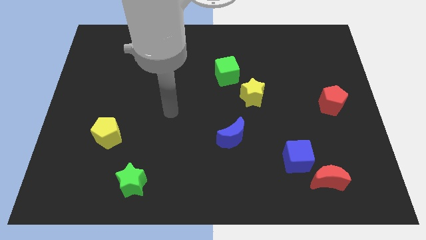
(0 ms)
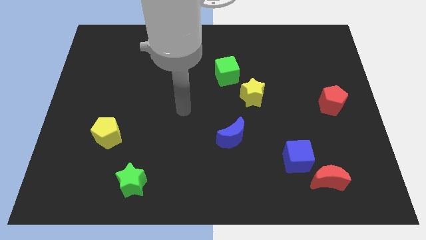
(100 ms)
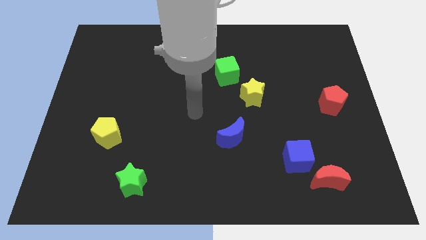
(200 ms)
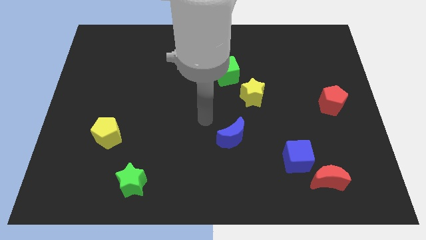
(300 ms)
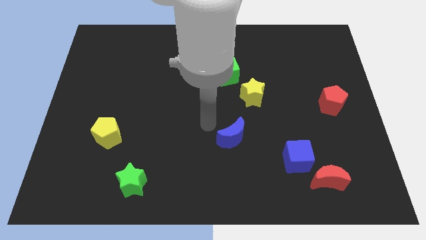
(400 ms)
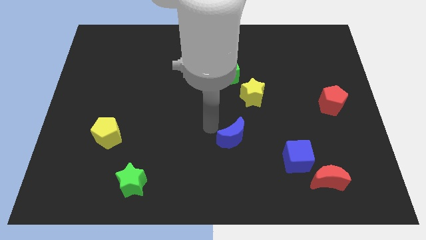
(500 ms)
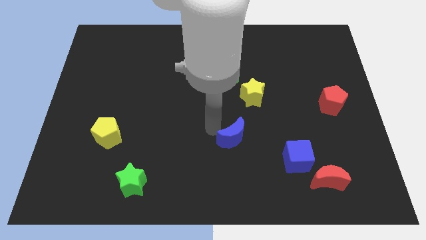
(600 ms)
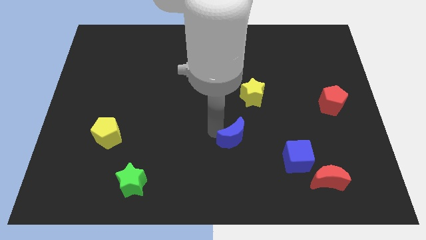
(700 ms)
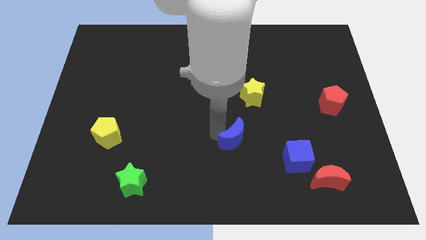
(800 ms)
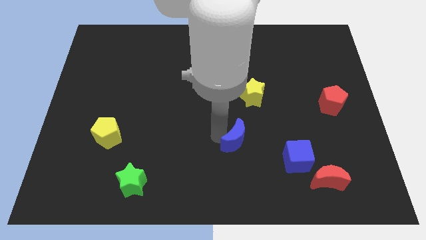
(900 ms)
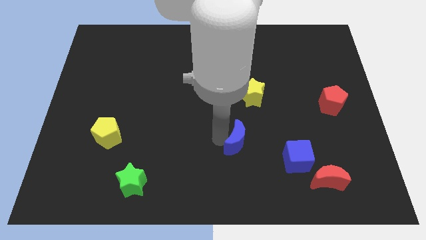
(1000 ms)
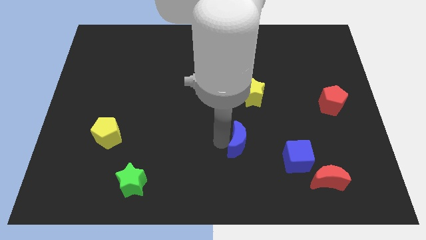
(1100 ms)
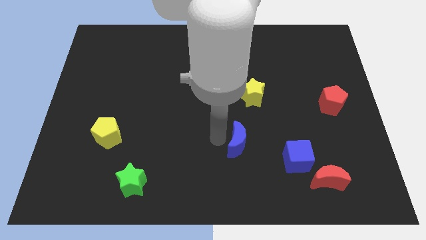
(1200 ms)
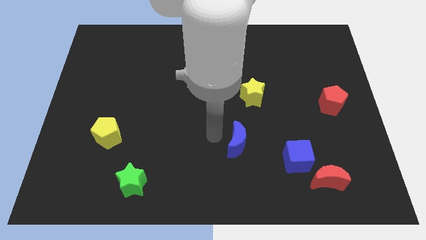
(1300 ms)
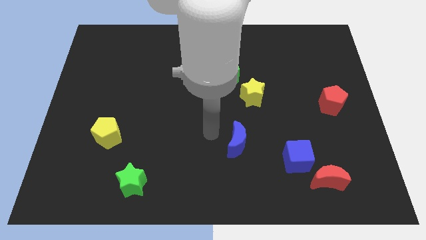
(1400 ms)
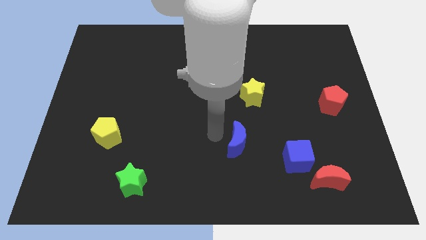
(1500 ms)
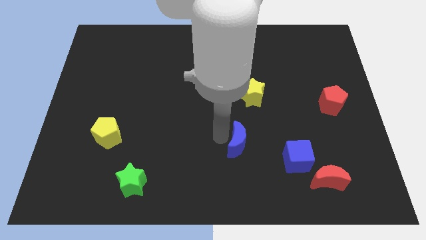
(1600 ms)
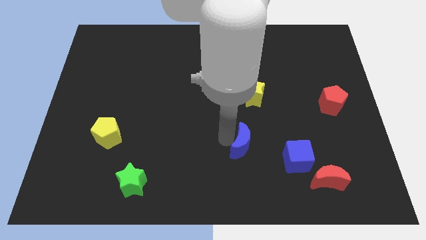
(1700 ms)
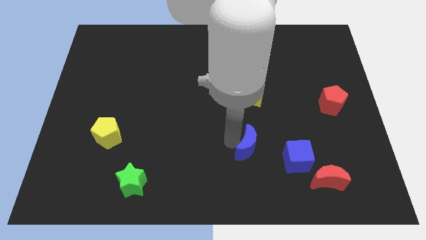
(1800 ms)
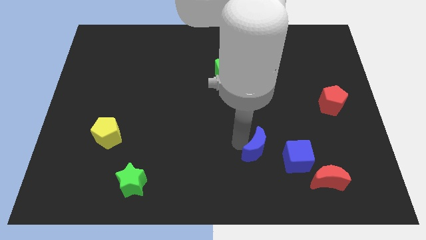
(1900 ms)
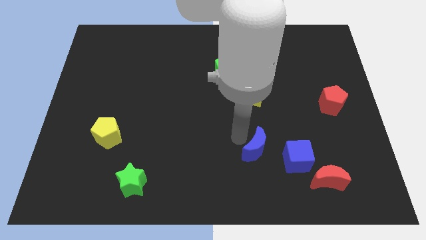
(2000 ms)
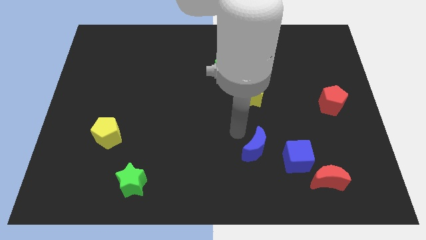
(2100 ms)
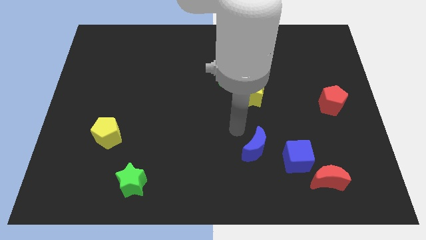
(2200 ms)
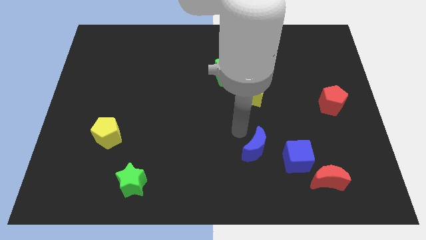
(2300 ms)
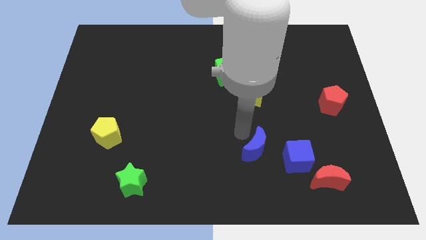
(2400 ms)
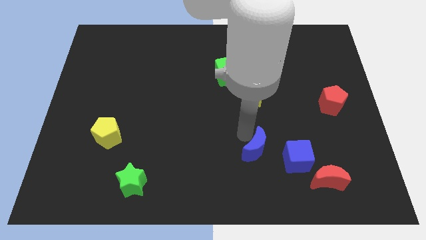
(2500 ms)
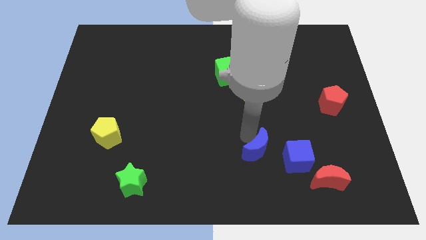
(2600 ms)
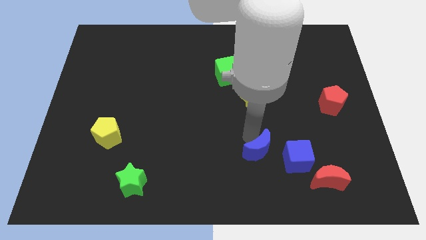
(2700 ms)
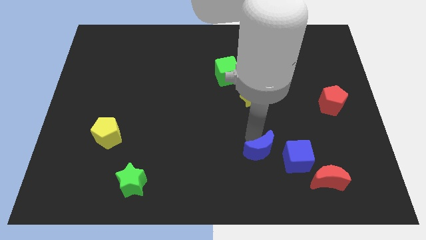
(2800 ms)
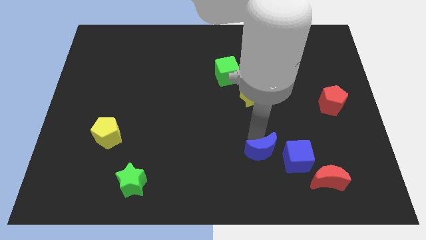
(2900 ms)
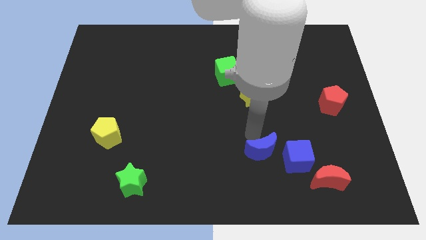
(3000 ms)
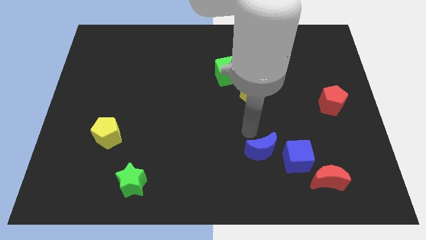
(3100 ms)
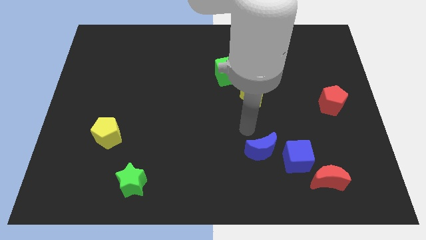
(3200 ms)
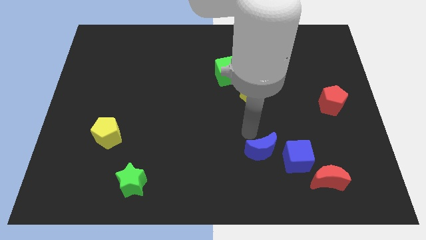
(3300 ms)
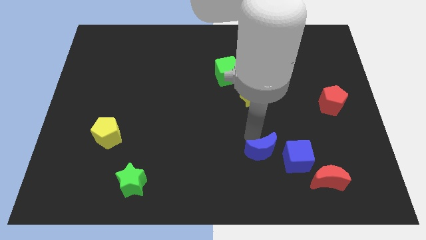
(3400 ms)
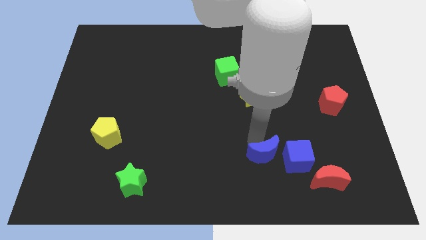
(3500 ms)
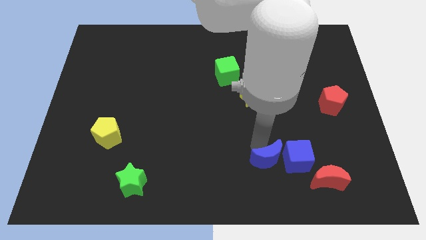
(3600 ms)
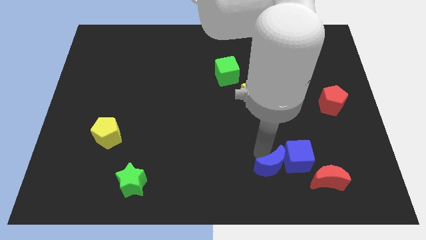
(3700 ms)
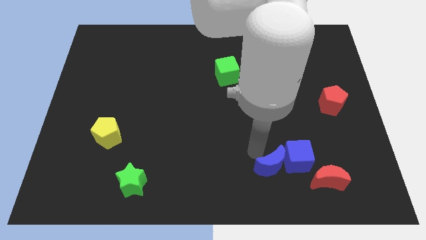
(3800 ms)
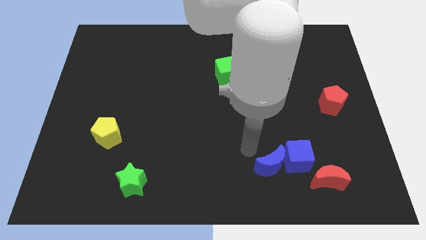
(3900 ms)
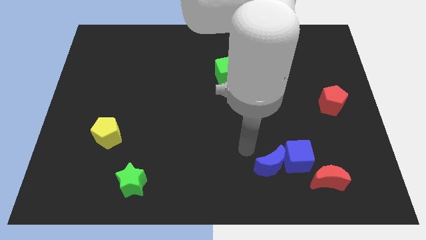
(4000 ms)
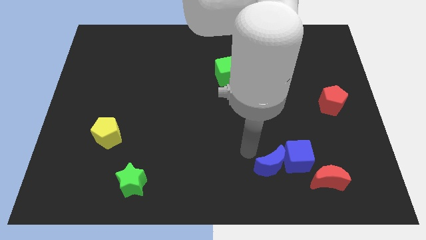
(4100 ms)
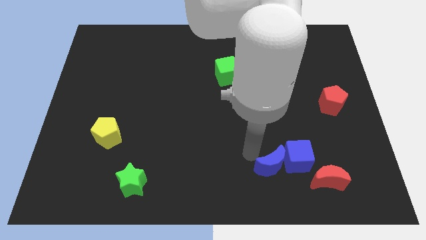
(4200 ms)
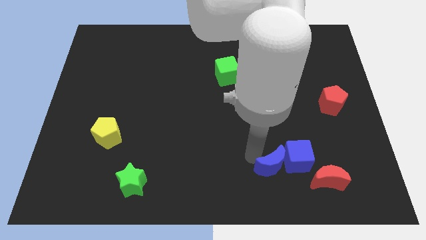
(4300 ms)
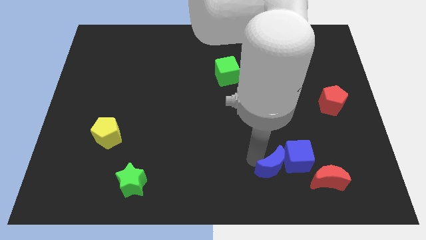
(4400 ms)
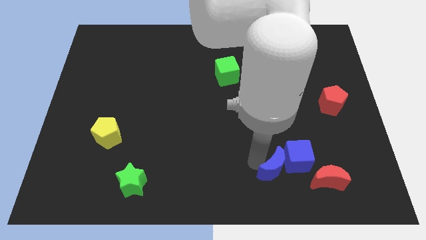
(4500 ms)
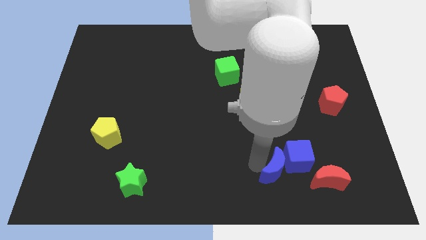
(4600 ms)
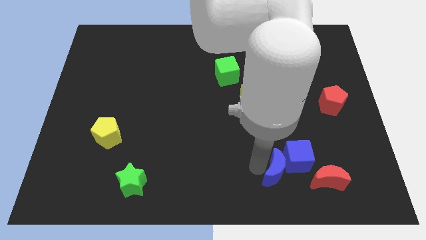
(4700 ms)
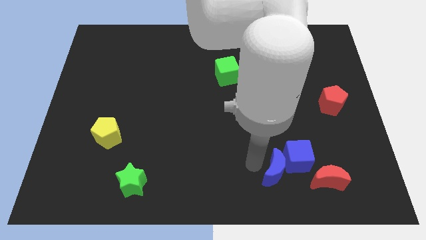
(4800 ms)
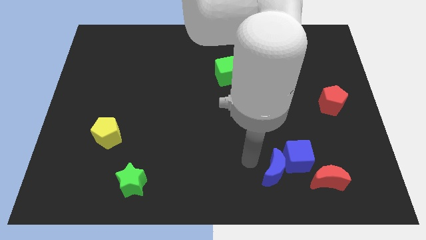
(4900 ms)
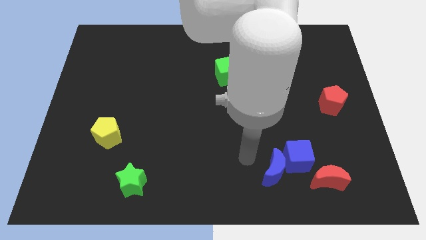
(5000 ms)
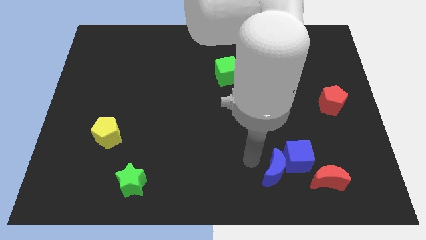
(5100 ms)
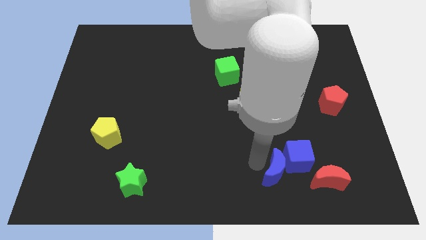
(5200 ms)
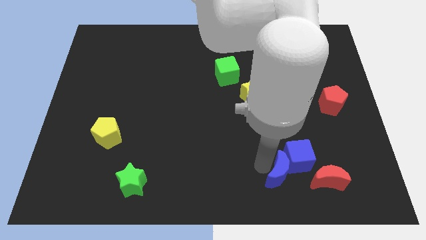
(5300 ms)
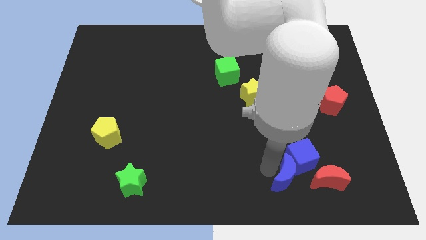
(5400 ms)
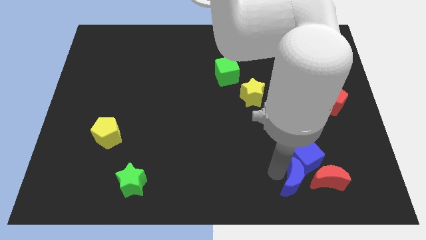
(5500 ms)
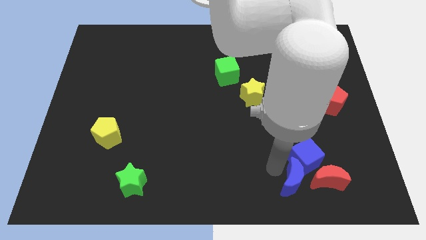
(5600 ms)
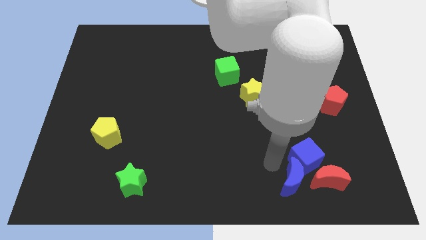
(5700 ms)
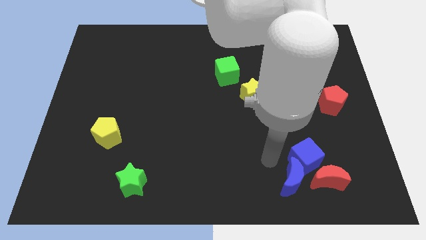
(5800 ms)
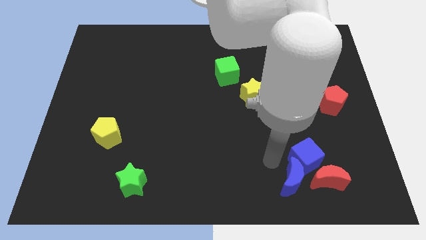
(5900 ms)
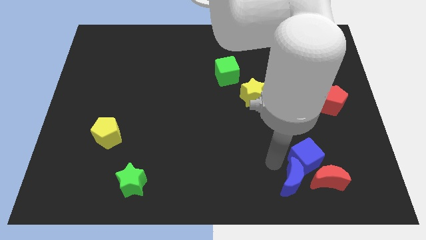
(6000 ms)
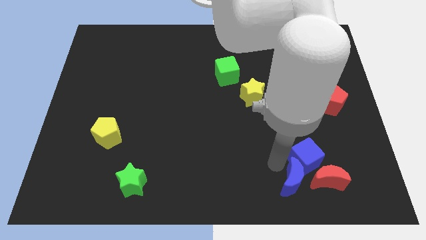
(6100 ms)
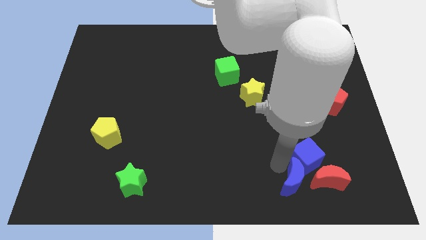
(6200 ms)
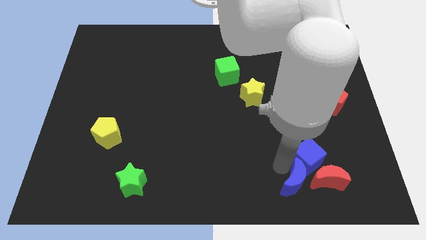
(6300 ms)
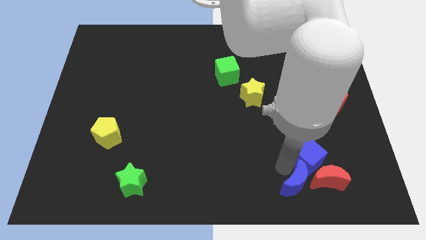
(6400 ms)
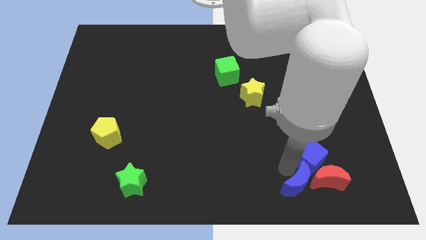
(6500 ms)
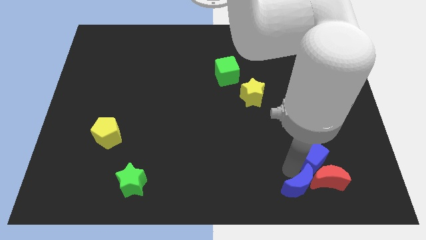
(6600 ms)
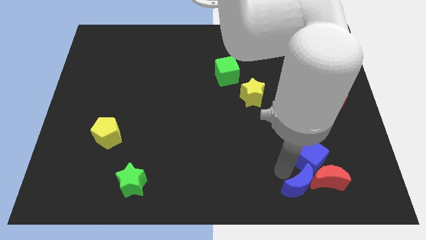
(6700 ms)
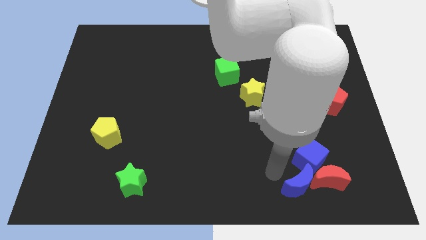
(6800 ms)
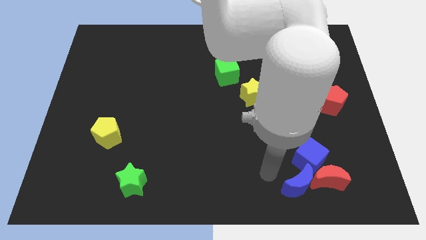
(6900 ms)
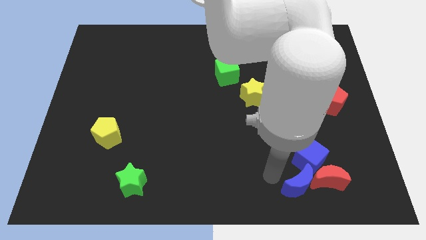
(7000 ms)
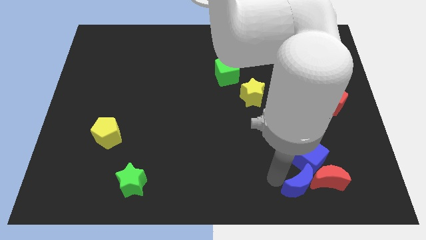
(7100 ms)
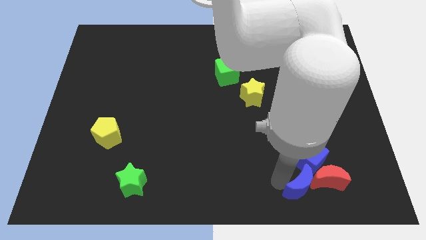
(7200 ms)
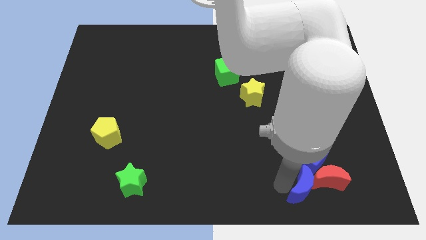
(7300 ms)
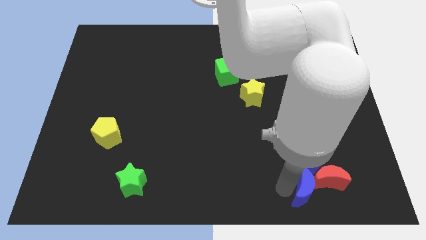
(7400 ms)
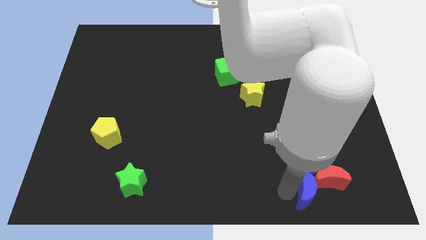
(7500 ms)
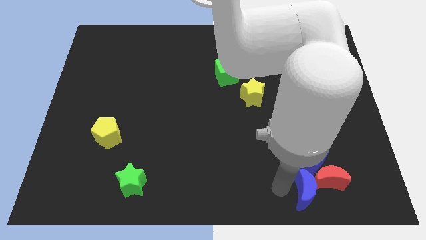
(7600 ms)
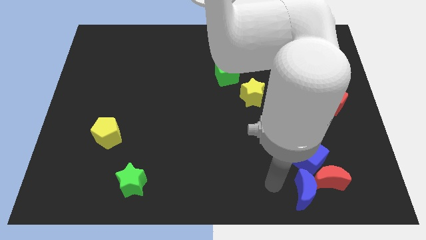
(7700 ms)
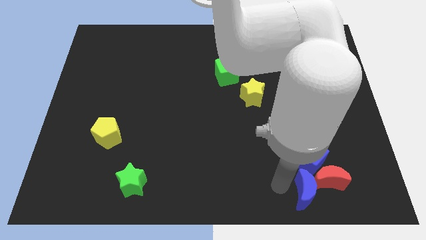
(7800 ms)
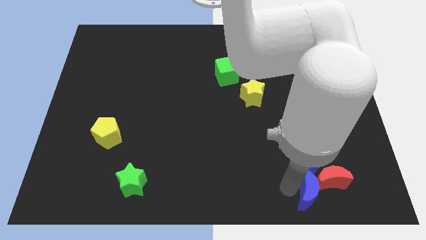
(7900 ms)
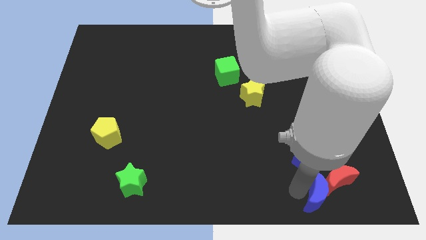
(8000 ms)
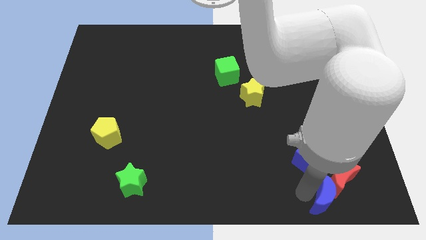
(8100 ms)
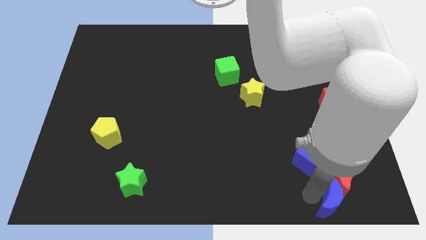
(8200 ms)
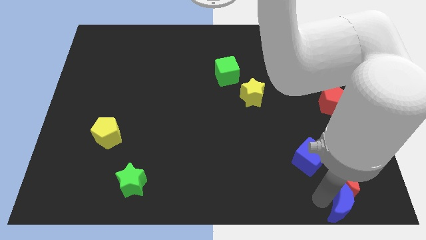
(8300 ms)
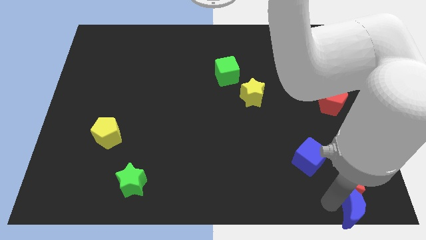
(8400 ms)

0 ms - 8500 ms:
push the blue moon to the bottom right corner
